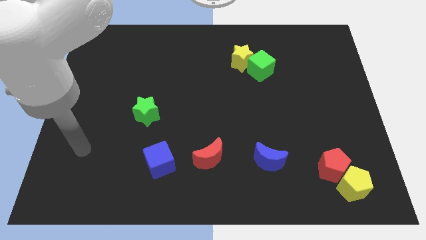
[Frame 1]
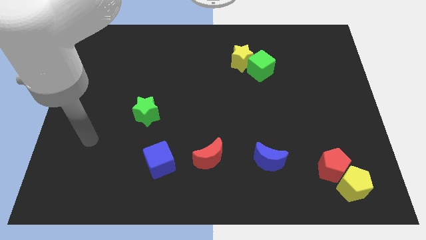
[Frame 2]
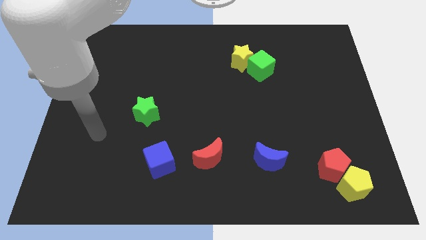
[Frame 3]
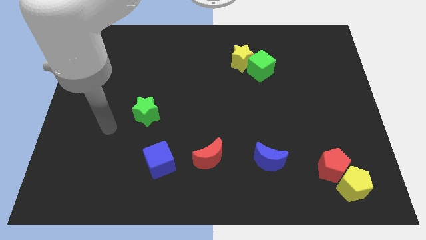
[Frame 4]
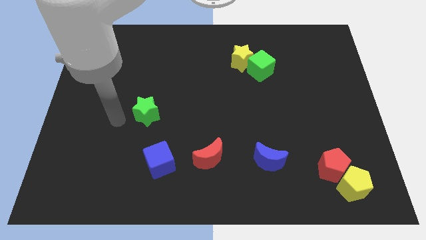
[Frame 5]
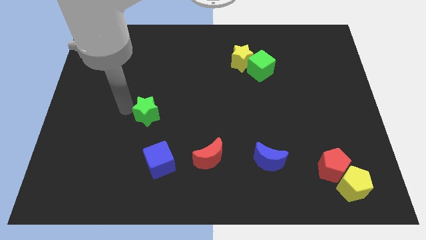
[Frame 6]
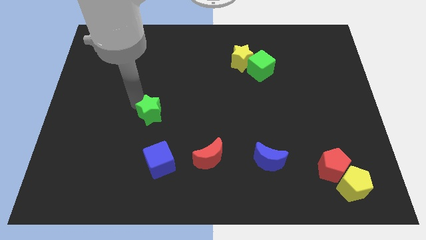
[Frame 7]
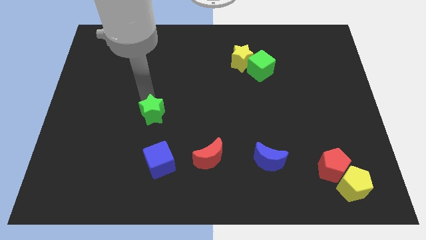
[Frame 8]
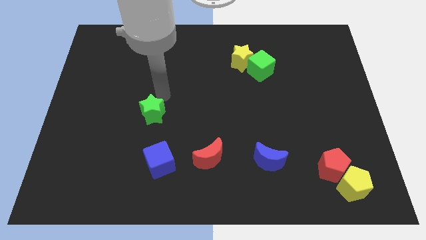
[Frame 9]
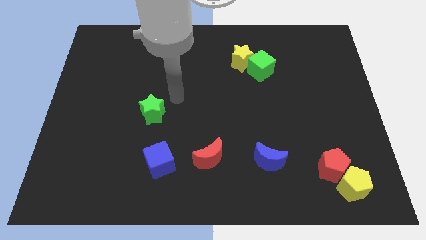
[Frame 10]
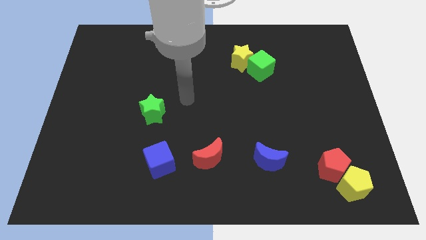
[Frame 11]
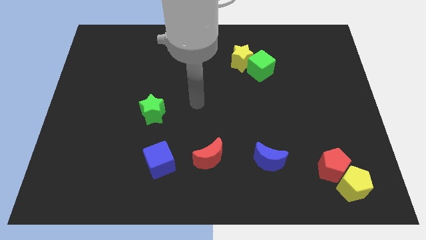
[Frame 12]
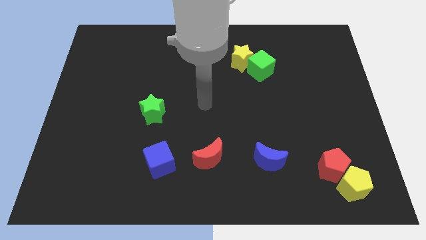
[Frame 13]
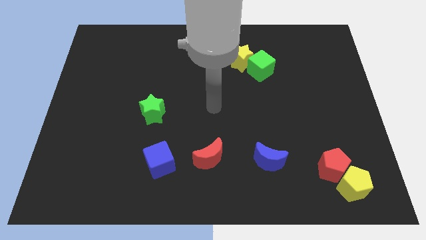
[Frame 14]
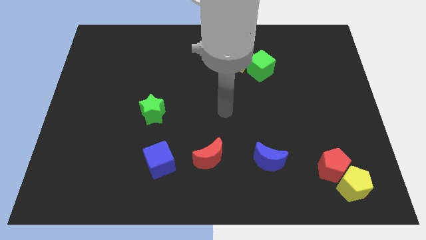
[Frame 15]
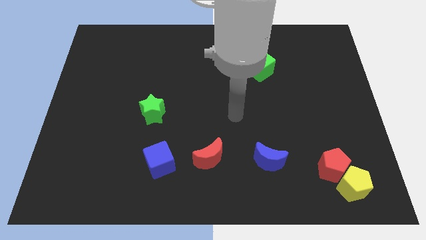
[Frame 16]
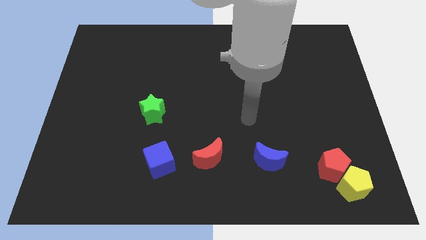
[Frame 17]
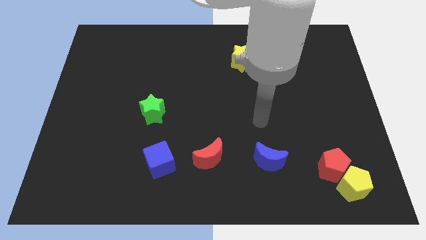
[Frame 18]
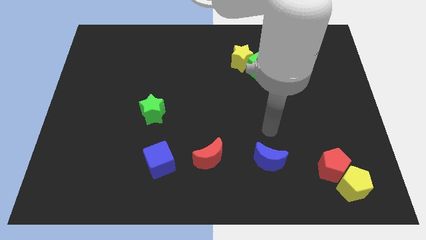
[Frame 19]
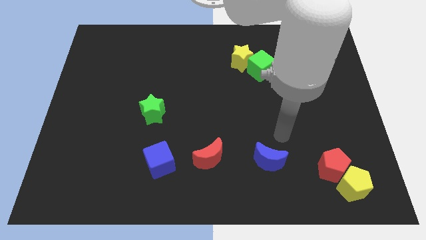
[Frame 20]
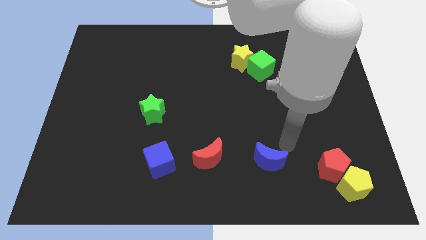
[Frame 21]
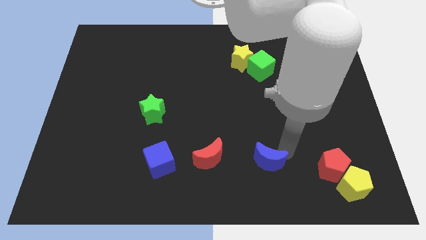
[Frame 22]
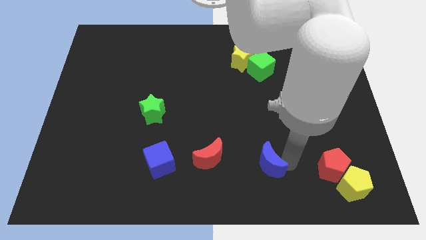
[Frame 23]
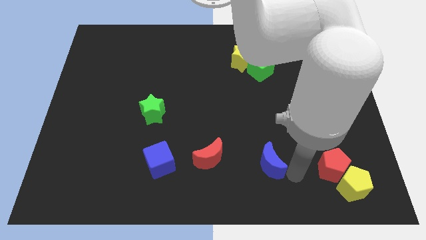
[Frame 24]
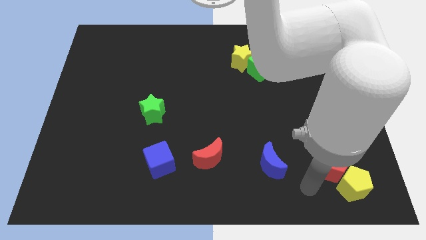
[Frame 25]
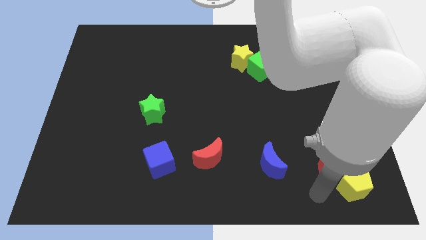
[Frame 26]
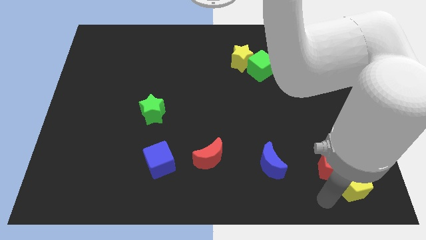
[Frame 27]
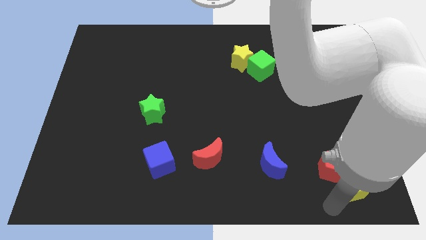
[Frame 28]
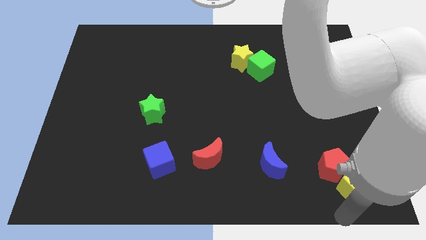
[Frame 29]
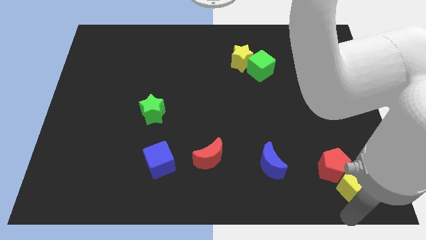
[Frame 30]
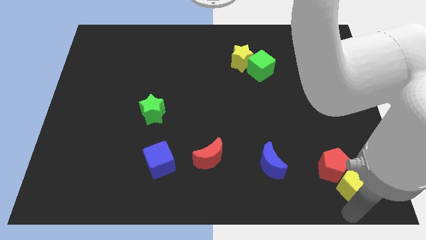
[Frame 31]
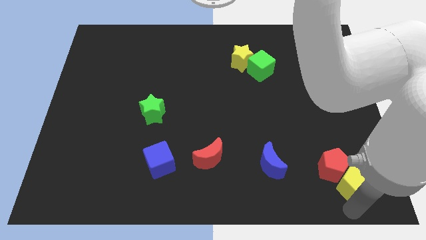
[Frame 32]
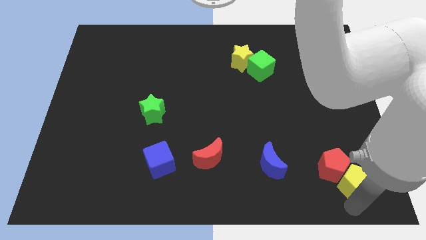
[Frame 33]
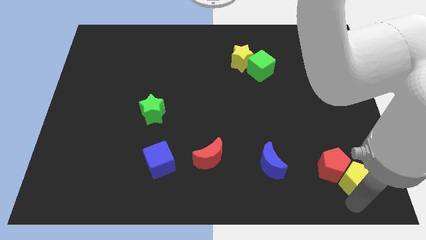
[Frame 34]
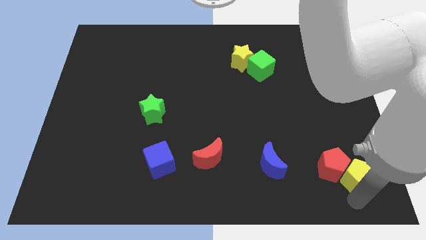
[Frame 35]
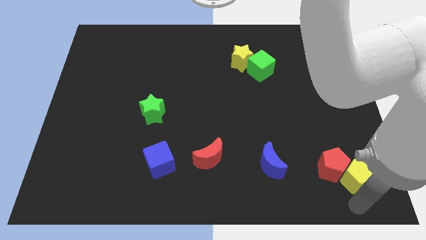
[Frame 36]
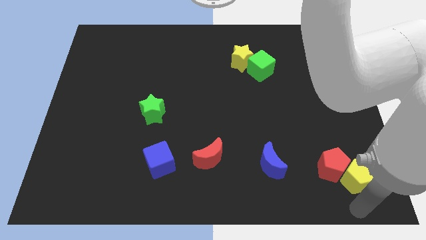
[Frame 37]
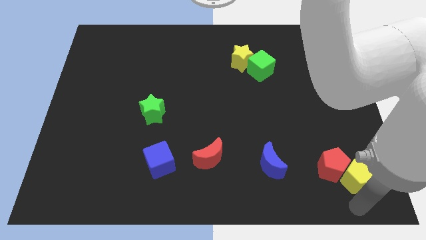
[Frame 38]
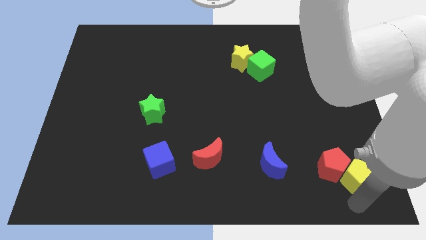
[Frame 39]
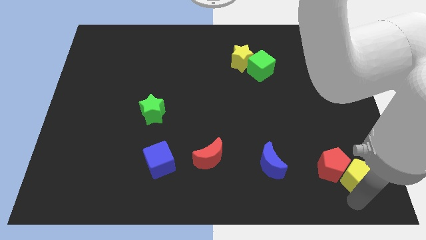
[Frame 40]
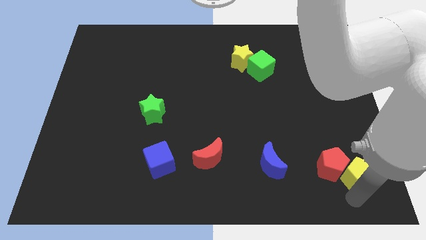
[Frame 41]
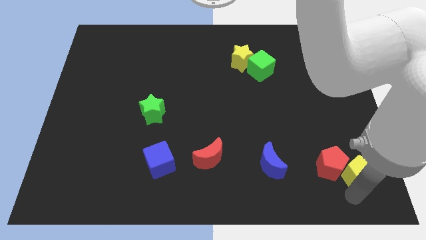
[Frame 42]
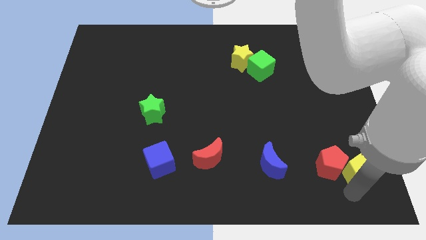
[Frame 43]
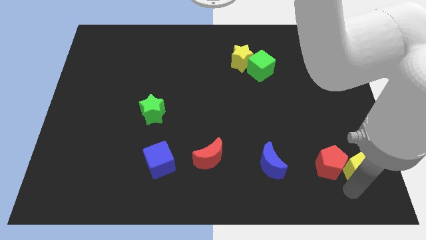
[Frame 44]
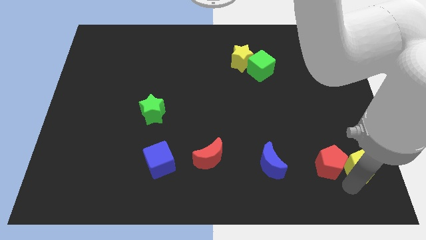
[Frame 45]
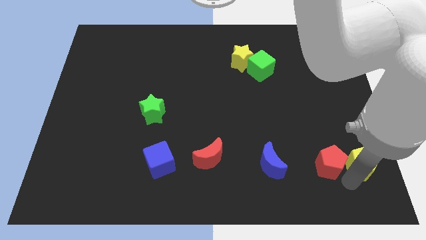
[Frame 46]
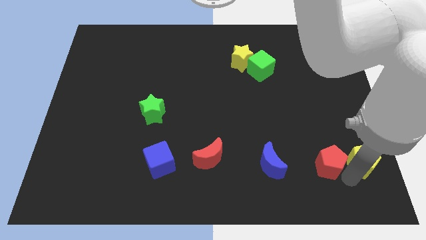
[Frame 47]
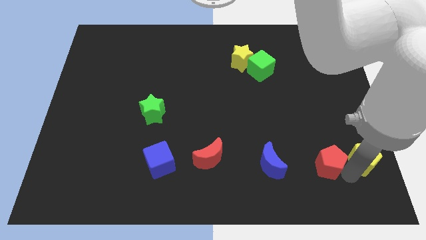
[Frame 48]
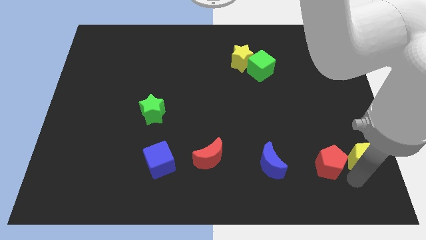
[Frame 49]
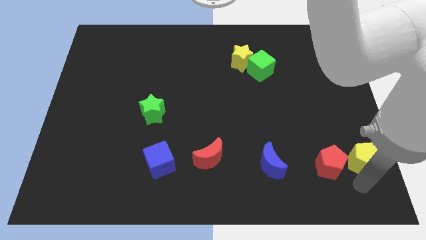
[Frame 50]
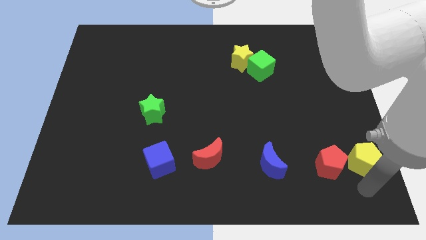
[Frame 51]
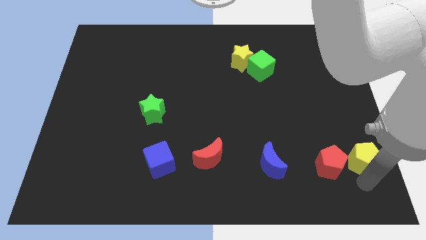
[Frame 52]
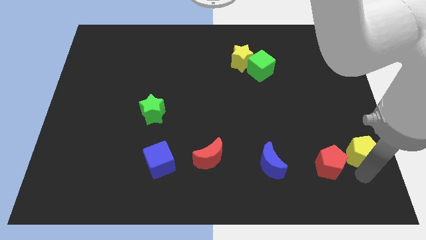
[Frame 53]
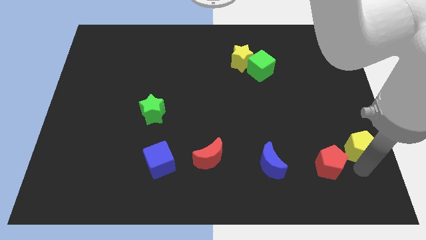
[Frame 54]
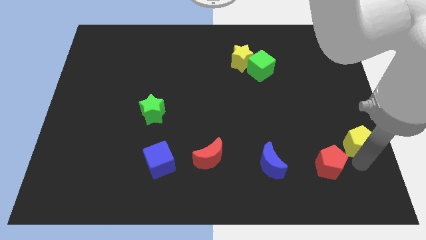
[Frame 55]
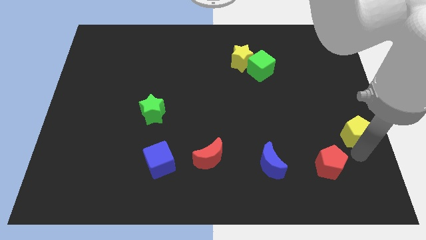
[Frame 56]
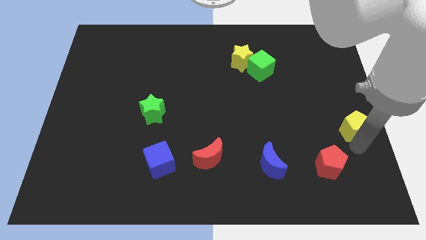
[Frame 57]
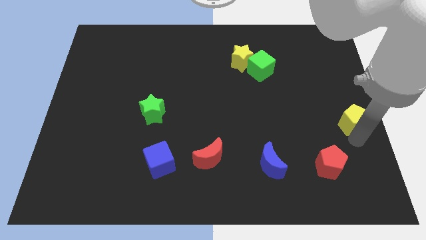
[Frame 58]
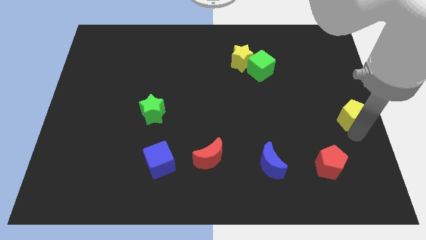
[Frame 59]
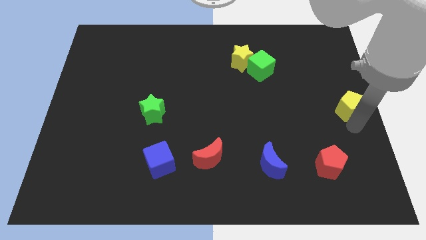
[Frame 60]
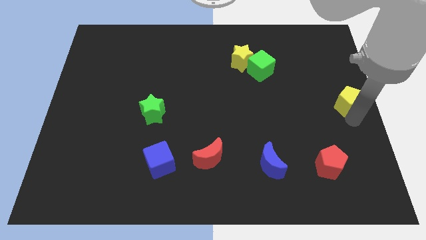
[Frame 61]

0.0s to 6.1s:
slide the yellow pentagon up

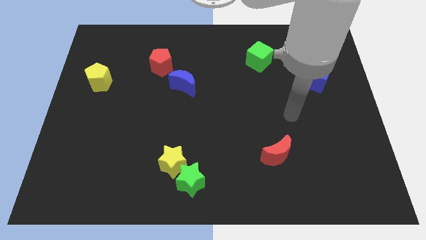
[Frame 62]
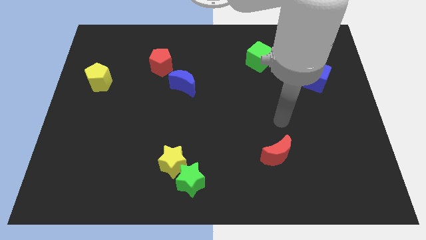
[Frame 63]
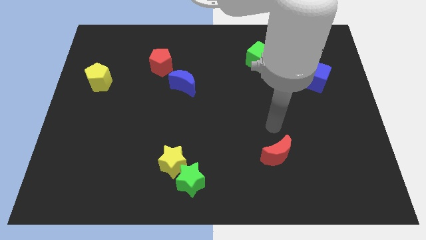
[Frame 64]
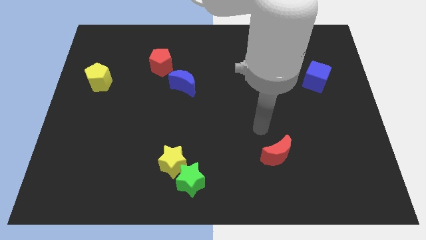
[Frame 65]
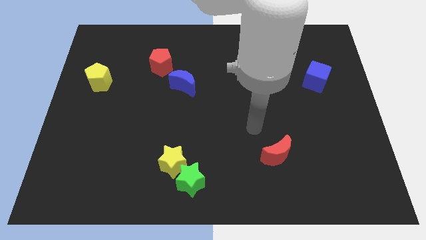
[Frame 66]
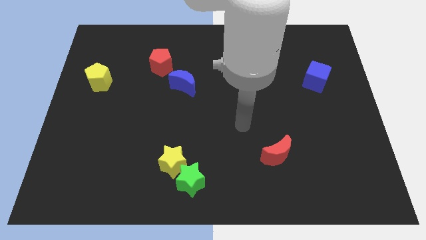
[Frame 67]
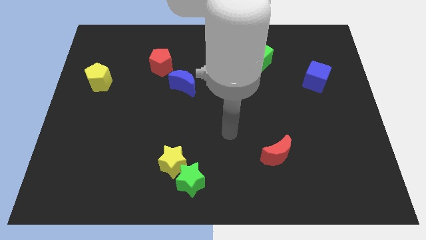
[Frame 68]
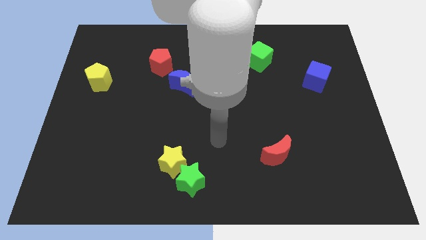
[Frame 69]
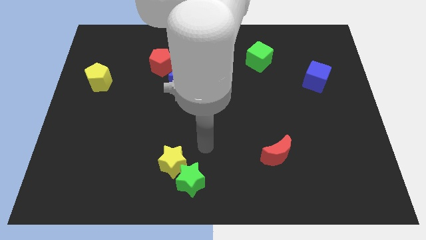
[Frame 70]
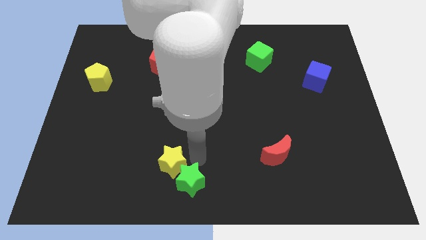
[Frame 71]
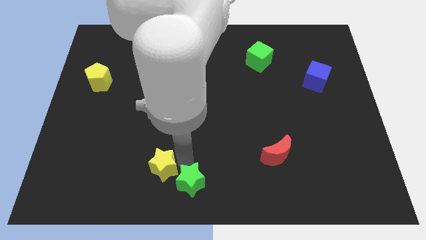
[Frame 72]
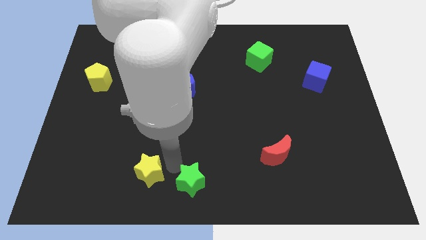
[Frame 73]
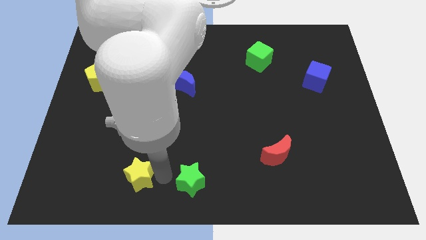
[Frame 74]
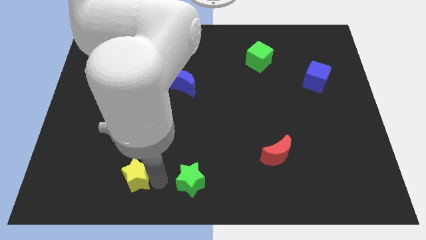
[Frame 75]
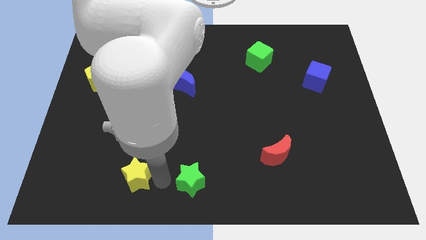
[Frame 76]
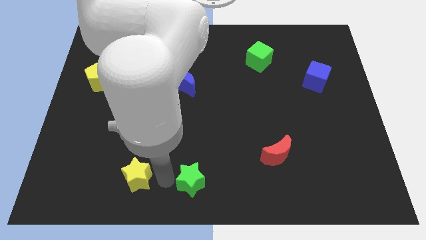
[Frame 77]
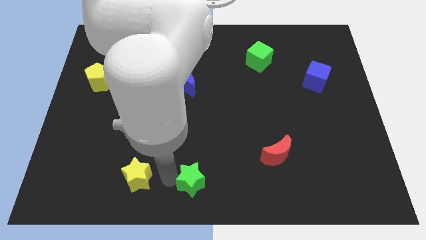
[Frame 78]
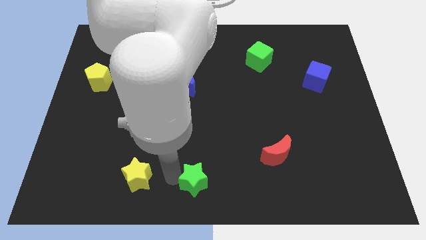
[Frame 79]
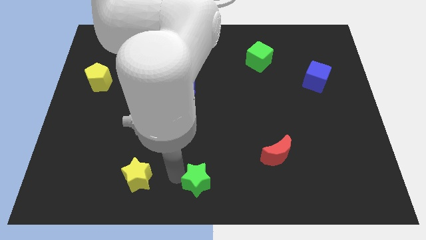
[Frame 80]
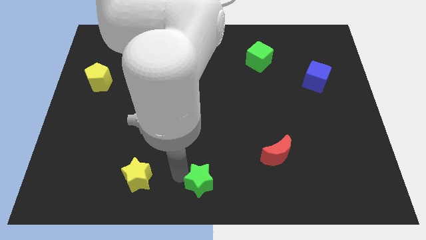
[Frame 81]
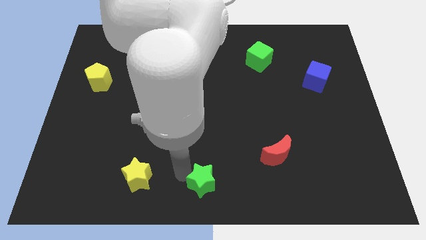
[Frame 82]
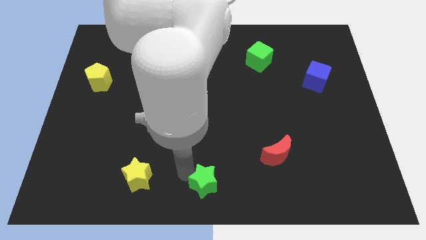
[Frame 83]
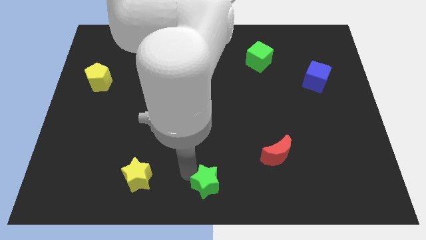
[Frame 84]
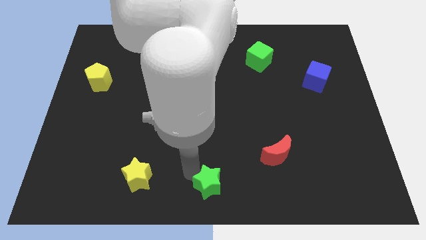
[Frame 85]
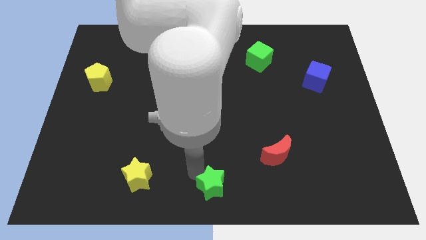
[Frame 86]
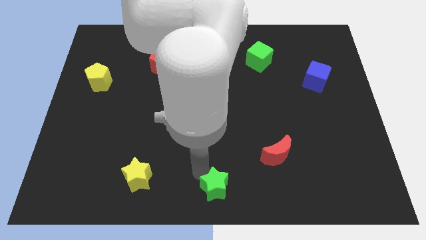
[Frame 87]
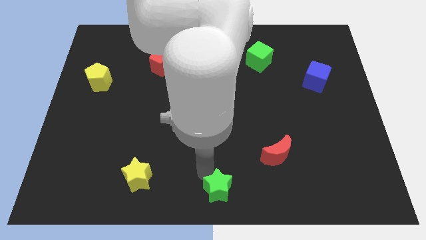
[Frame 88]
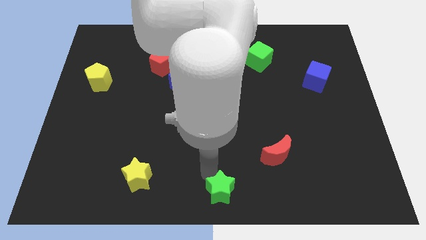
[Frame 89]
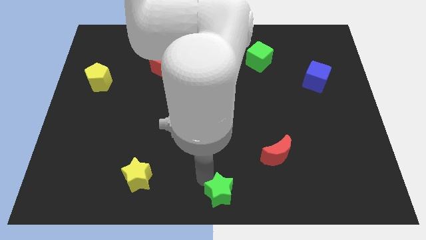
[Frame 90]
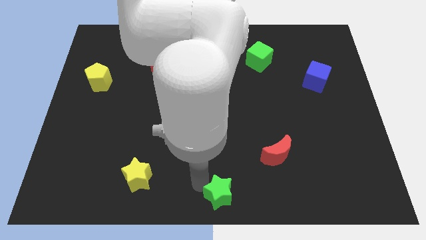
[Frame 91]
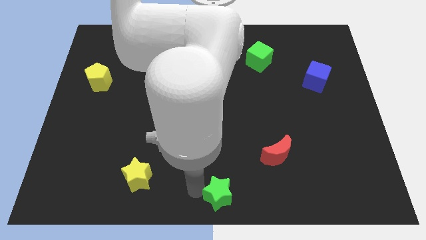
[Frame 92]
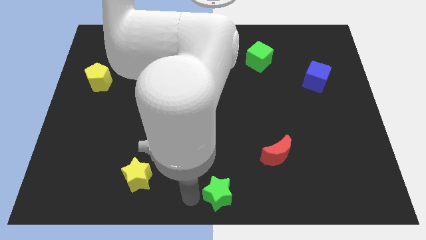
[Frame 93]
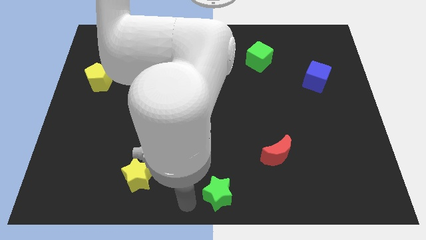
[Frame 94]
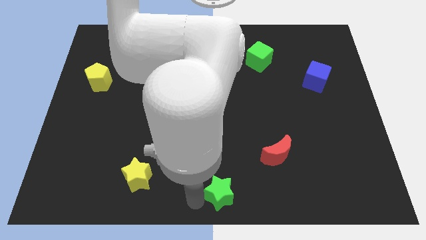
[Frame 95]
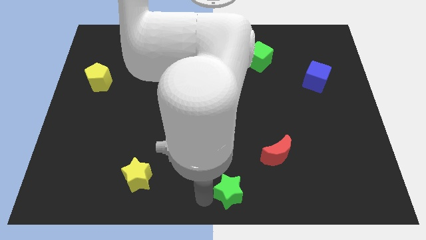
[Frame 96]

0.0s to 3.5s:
slide the green star a little bit right
